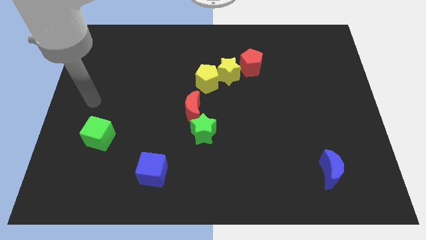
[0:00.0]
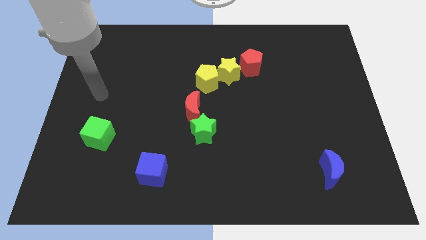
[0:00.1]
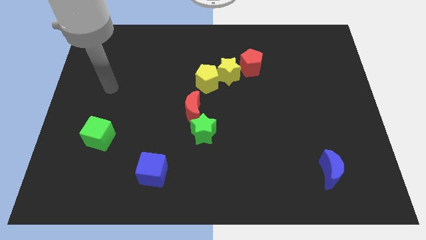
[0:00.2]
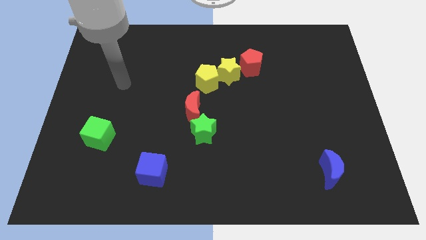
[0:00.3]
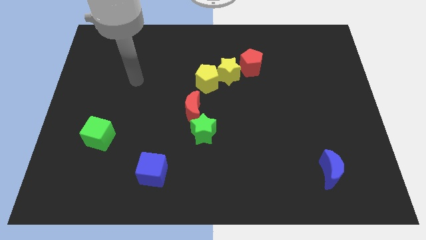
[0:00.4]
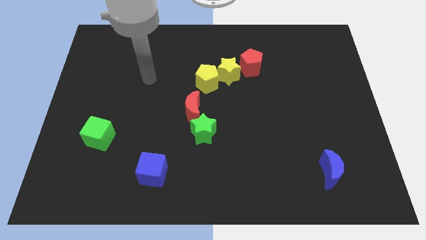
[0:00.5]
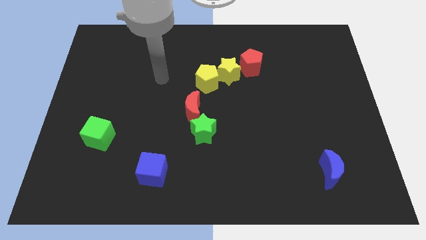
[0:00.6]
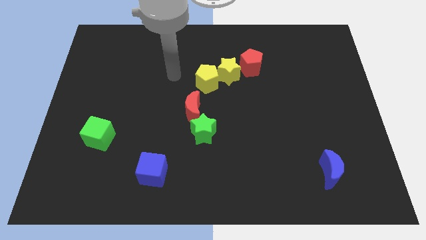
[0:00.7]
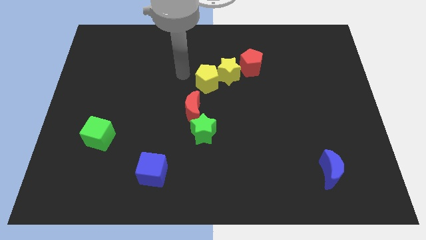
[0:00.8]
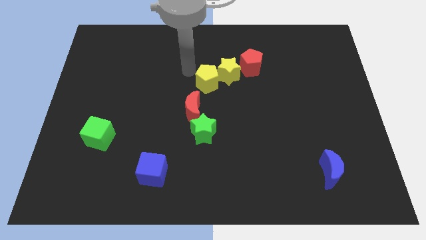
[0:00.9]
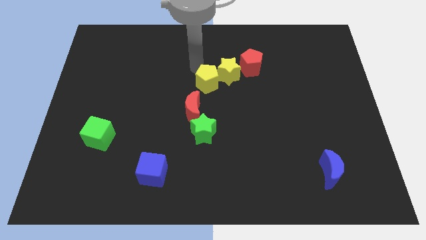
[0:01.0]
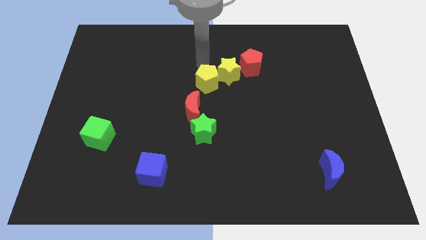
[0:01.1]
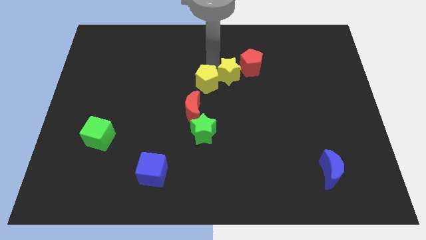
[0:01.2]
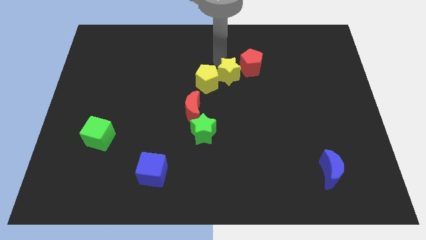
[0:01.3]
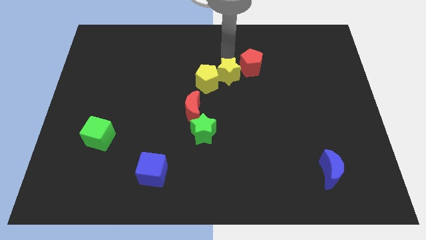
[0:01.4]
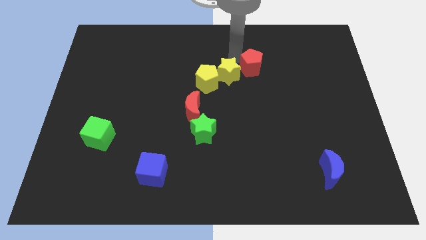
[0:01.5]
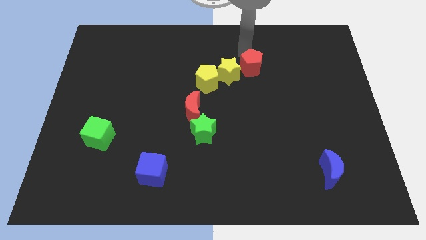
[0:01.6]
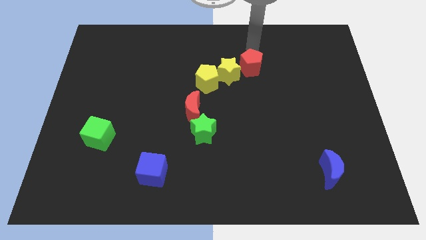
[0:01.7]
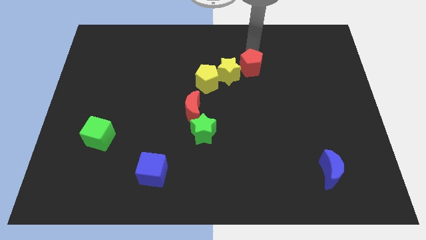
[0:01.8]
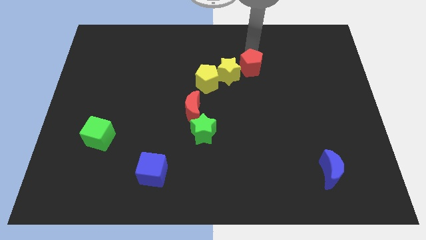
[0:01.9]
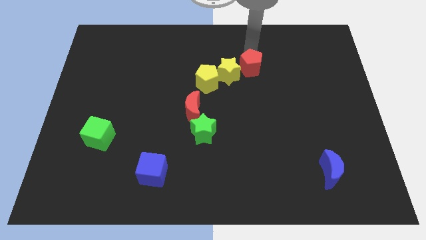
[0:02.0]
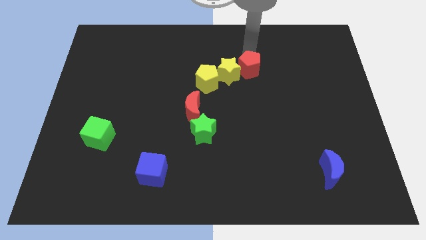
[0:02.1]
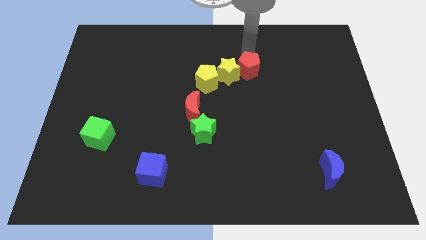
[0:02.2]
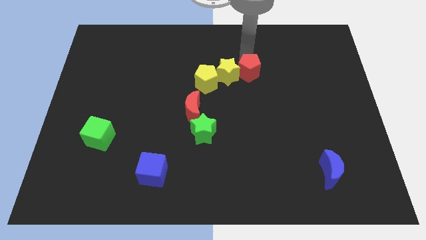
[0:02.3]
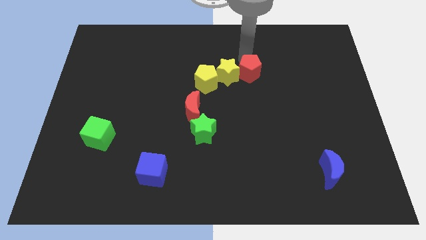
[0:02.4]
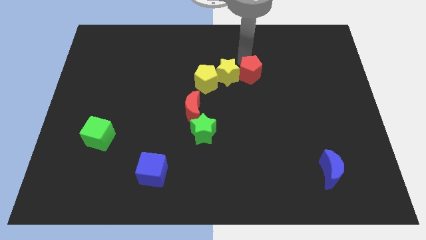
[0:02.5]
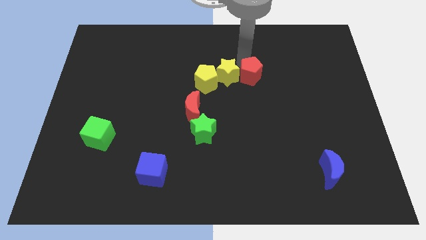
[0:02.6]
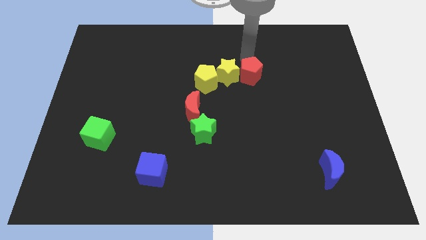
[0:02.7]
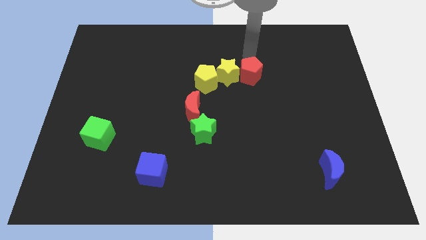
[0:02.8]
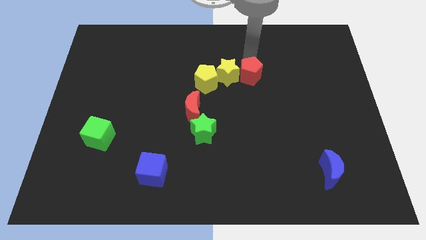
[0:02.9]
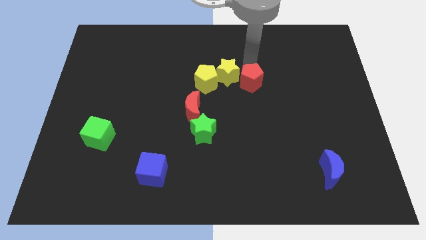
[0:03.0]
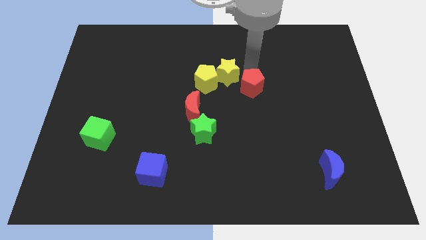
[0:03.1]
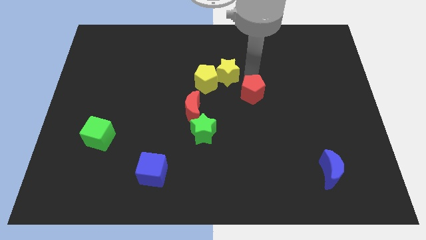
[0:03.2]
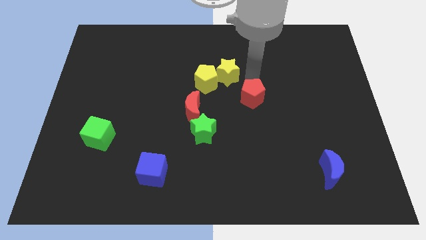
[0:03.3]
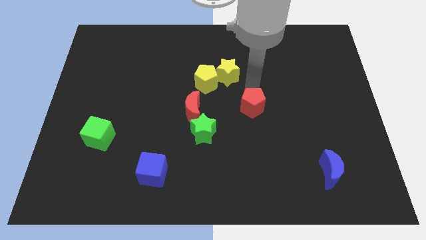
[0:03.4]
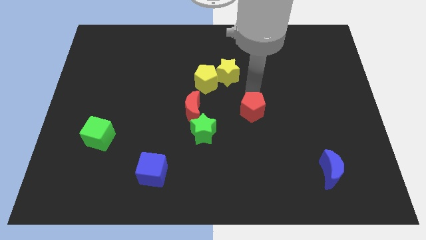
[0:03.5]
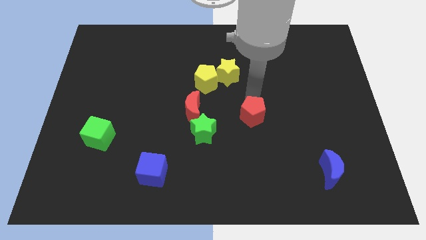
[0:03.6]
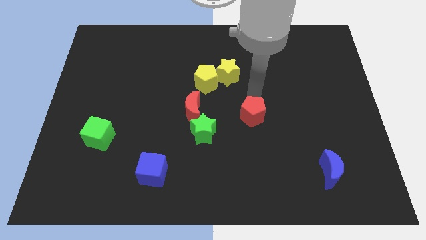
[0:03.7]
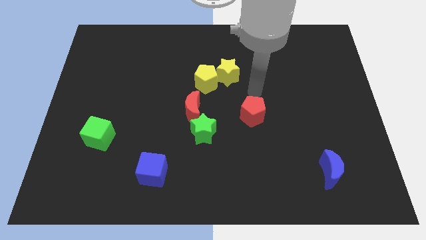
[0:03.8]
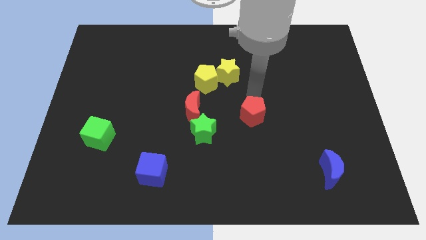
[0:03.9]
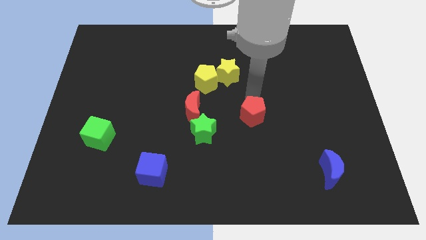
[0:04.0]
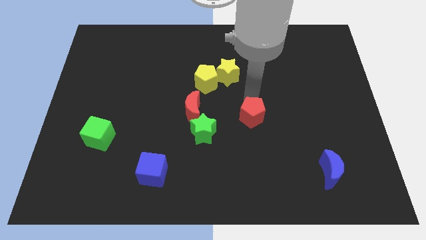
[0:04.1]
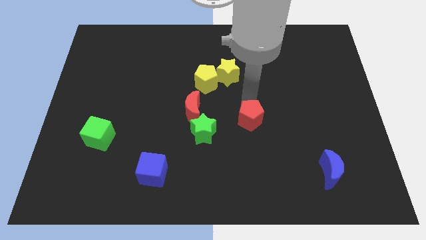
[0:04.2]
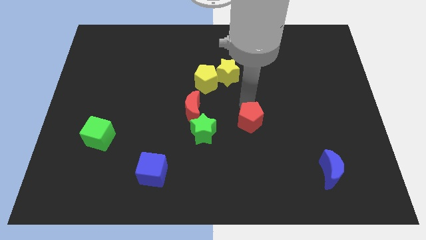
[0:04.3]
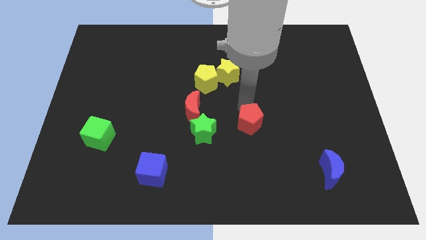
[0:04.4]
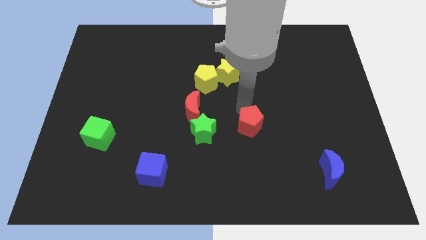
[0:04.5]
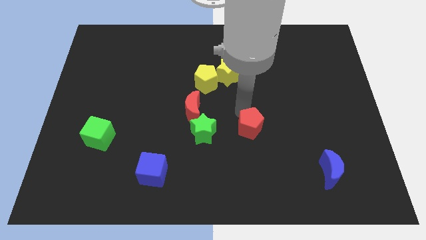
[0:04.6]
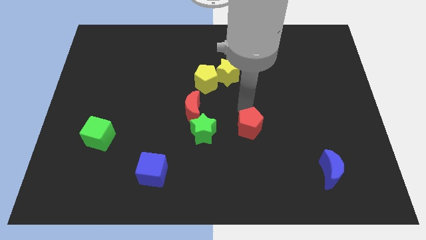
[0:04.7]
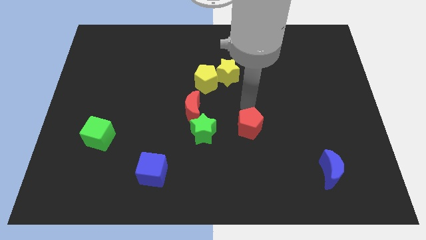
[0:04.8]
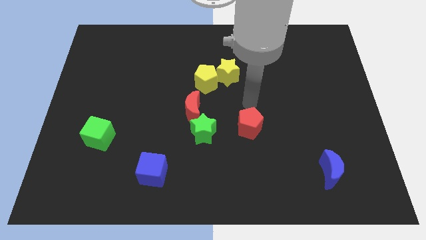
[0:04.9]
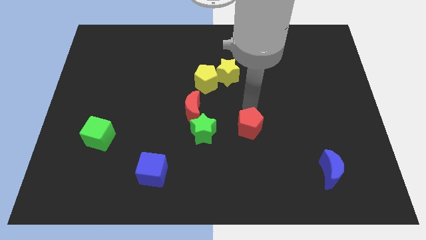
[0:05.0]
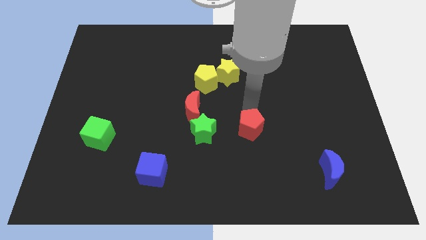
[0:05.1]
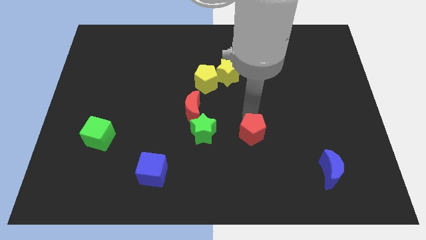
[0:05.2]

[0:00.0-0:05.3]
push the red pentagon down

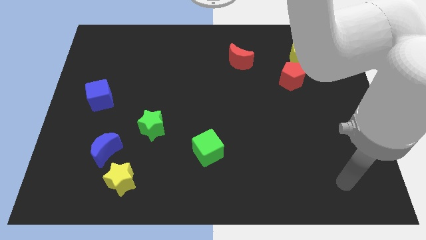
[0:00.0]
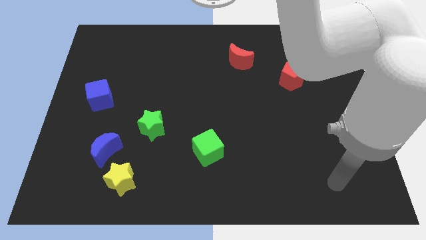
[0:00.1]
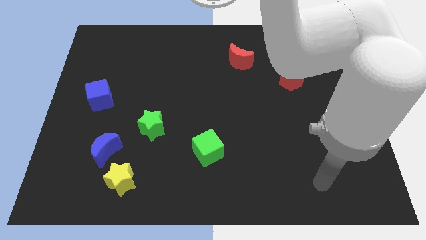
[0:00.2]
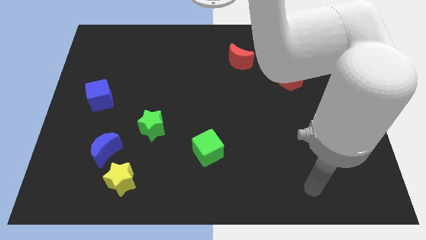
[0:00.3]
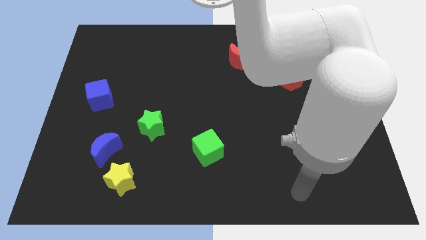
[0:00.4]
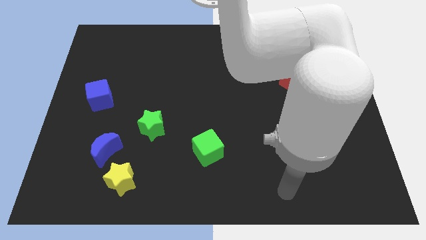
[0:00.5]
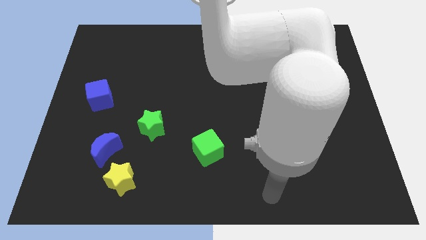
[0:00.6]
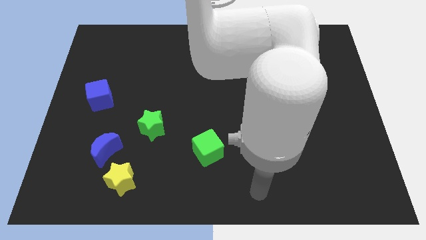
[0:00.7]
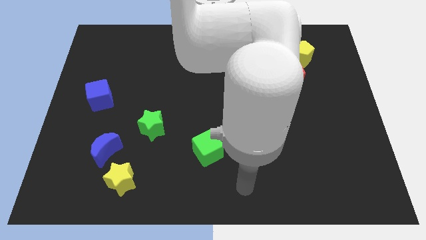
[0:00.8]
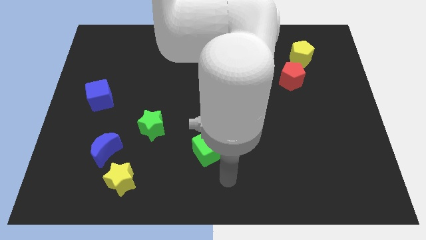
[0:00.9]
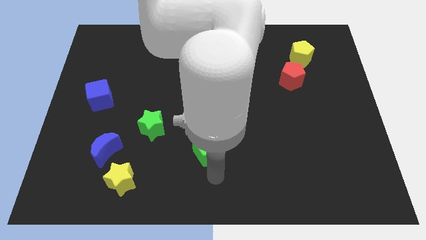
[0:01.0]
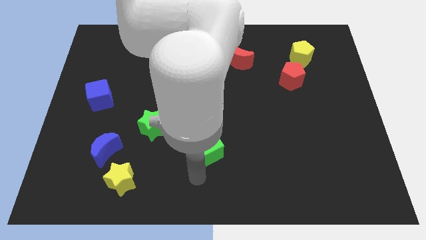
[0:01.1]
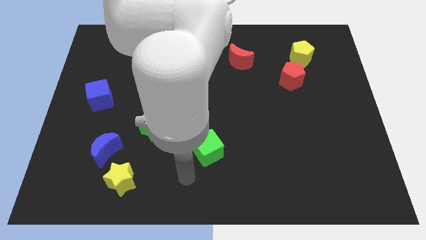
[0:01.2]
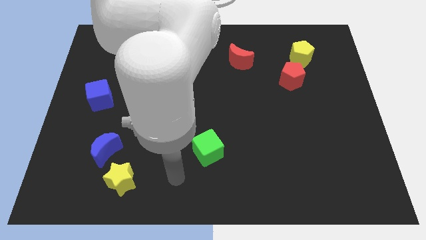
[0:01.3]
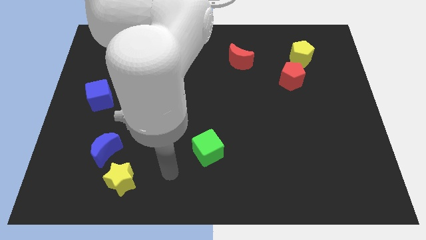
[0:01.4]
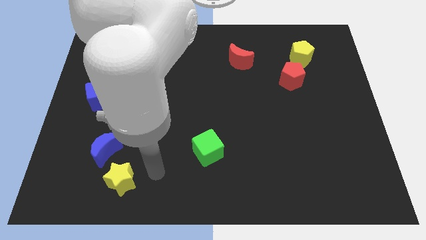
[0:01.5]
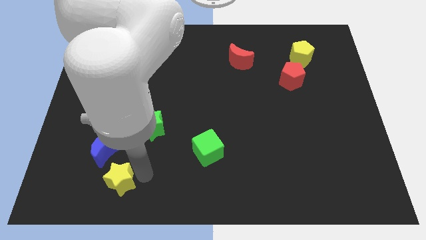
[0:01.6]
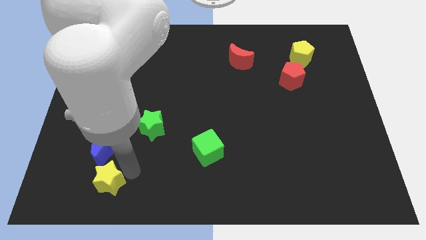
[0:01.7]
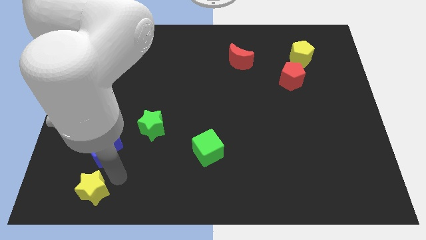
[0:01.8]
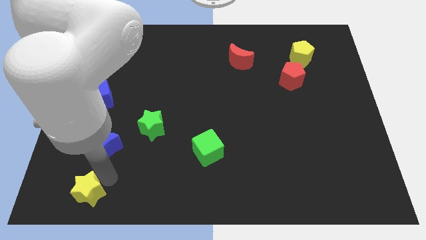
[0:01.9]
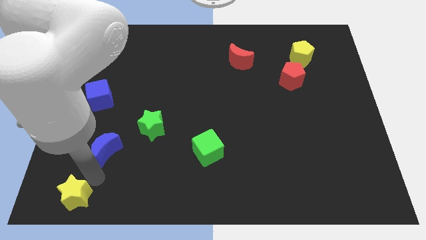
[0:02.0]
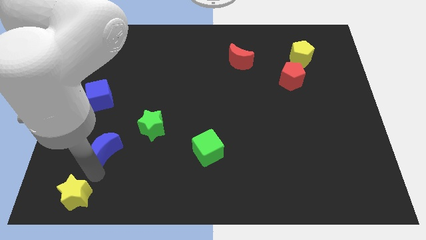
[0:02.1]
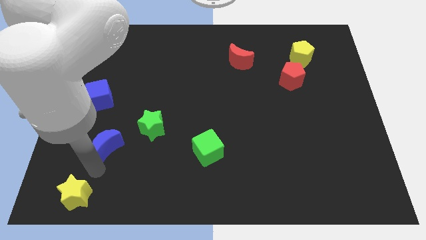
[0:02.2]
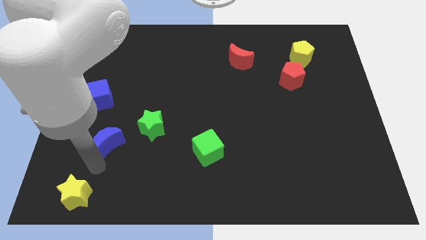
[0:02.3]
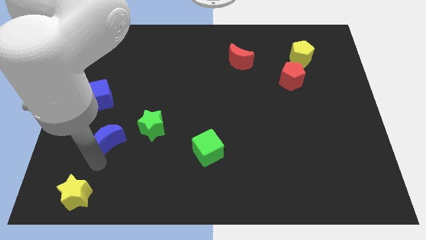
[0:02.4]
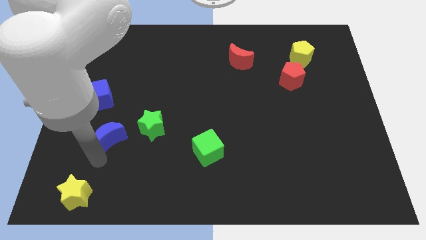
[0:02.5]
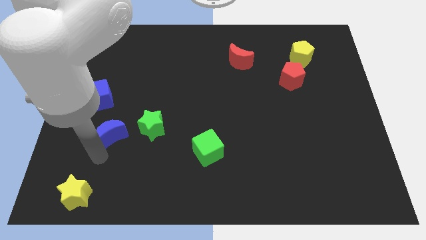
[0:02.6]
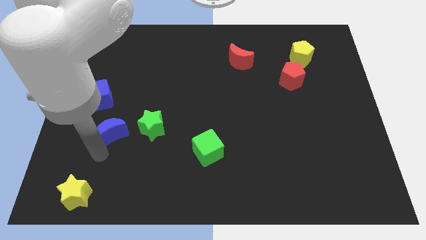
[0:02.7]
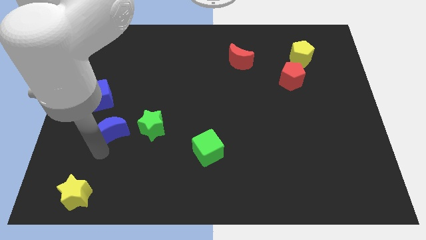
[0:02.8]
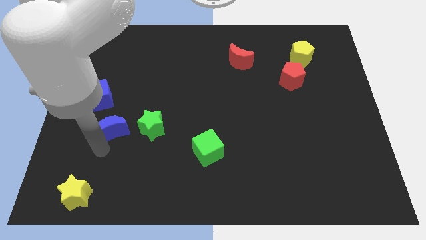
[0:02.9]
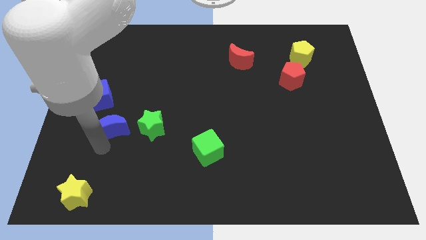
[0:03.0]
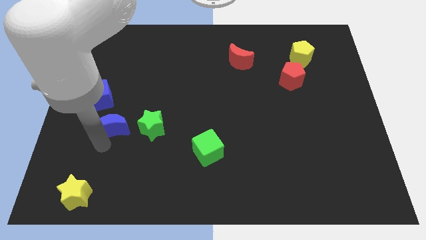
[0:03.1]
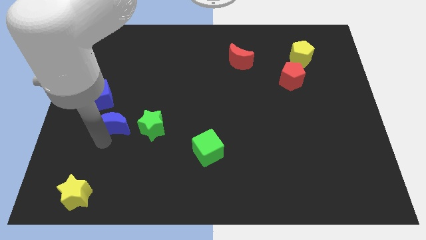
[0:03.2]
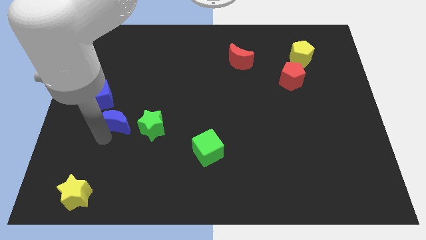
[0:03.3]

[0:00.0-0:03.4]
push the blue moon a bit upwards
